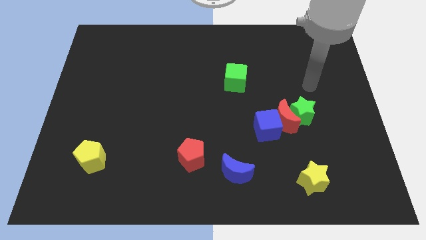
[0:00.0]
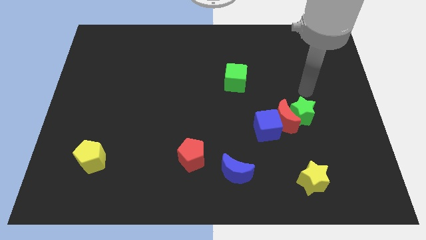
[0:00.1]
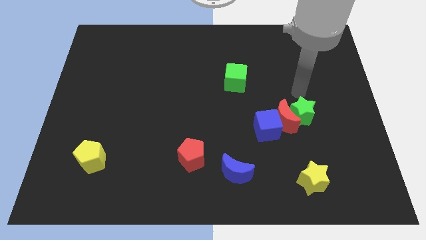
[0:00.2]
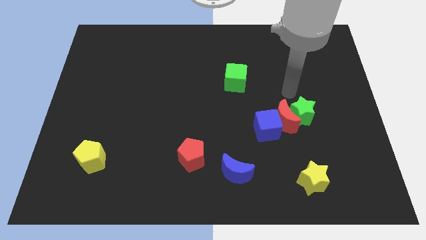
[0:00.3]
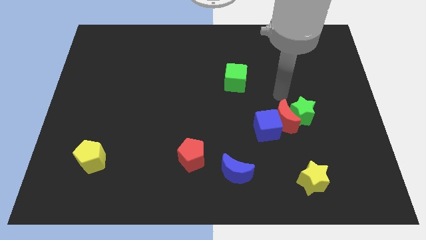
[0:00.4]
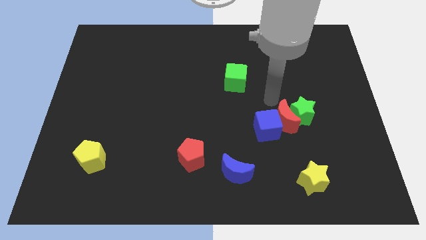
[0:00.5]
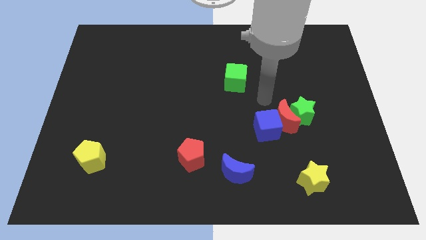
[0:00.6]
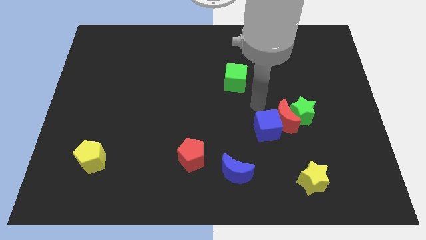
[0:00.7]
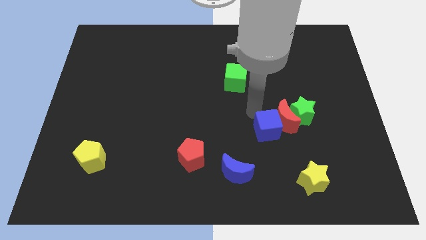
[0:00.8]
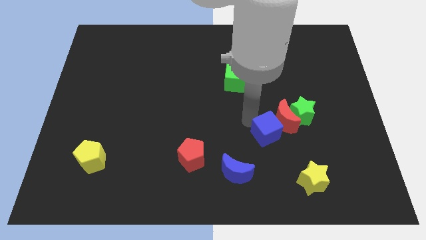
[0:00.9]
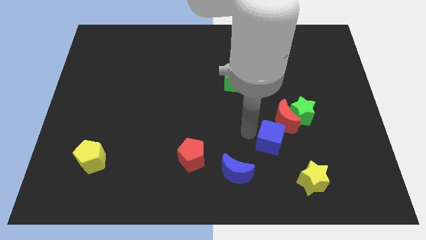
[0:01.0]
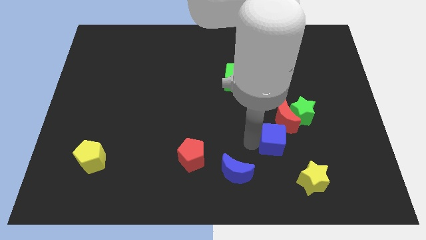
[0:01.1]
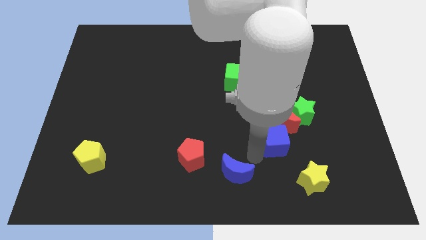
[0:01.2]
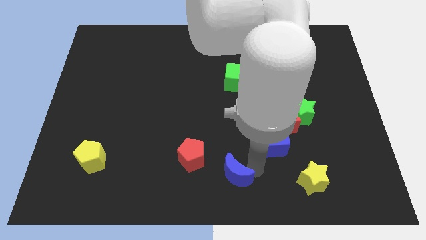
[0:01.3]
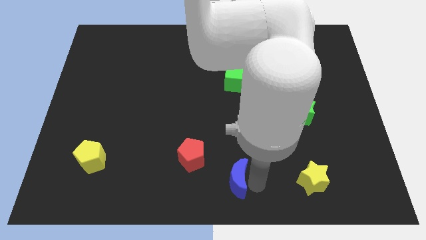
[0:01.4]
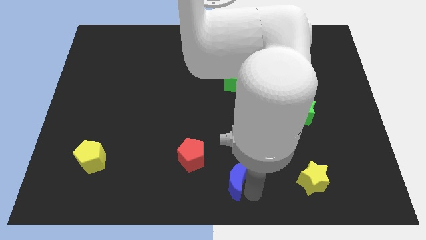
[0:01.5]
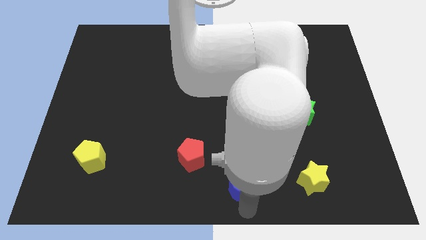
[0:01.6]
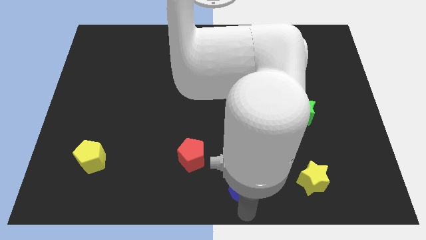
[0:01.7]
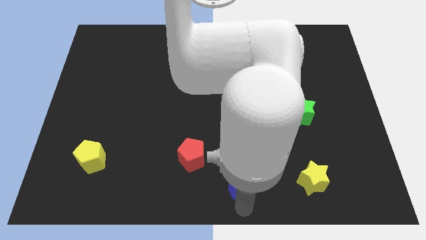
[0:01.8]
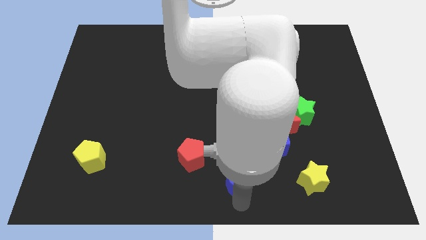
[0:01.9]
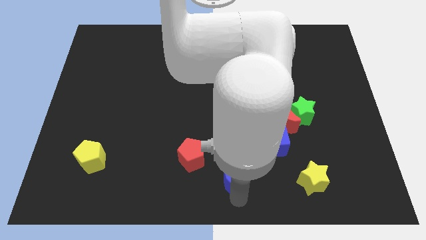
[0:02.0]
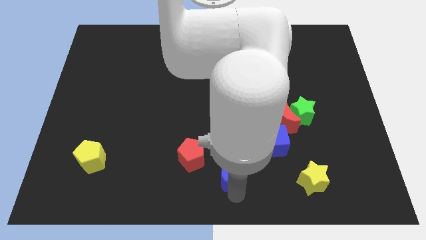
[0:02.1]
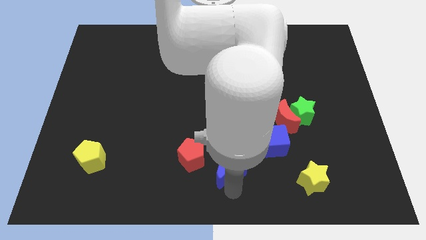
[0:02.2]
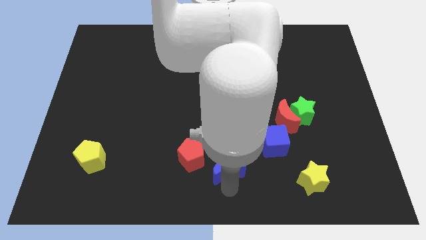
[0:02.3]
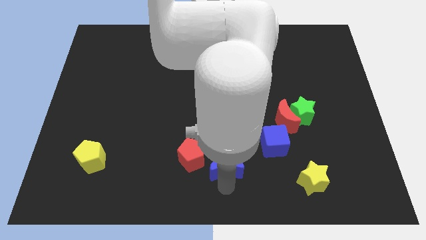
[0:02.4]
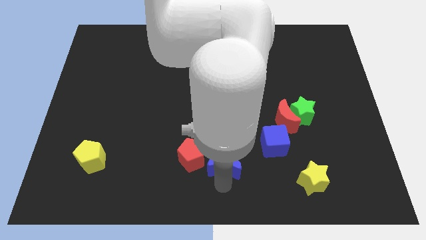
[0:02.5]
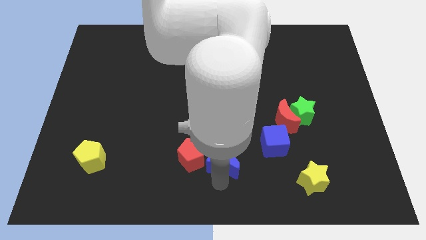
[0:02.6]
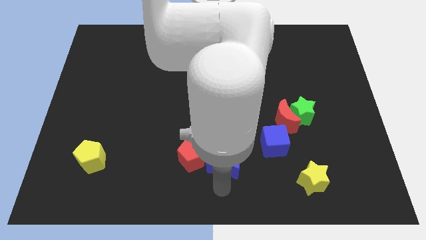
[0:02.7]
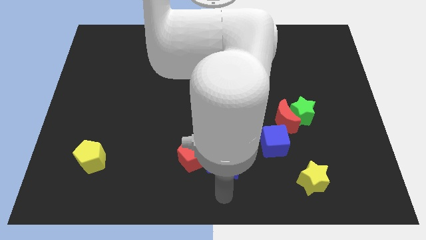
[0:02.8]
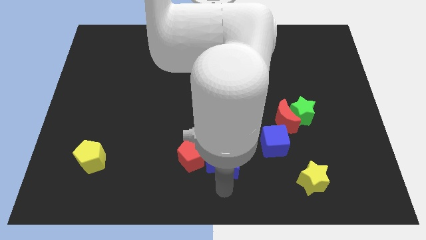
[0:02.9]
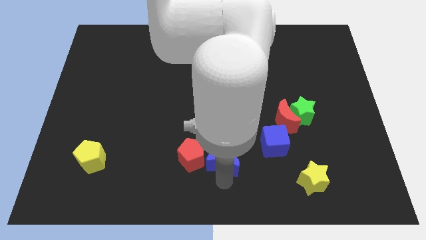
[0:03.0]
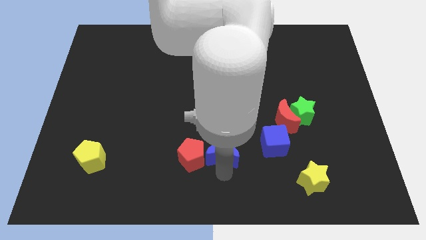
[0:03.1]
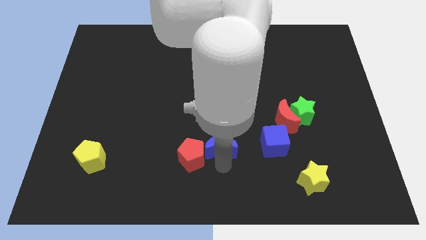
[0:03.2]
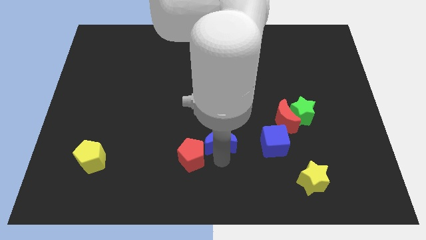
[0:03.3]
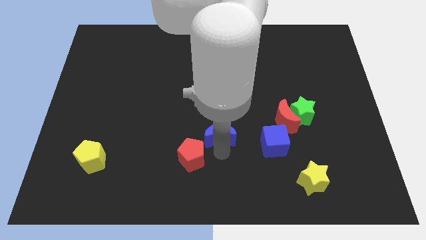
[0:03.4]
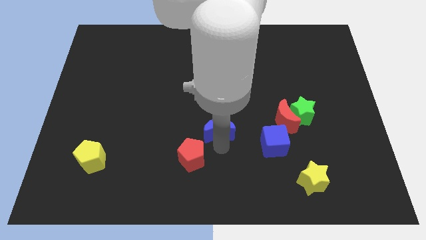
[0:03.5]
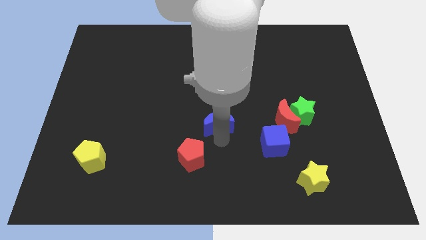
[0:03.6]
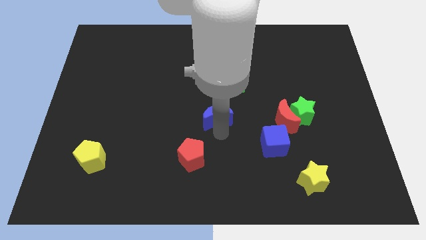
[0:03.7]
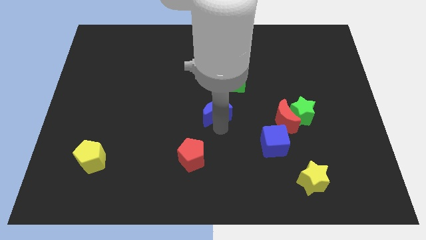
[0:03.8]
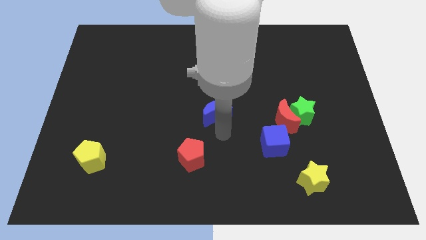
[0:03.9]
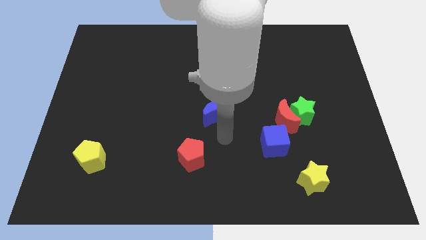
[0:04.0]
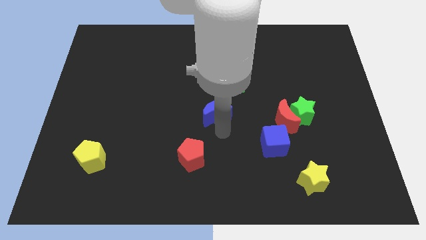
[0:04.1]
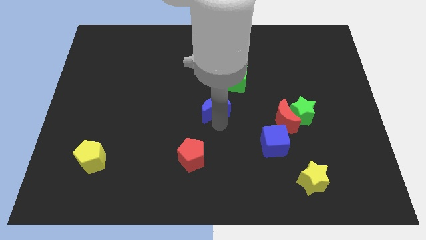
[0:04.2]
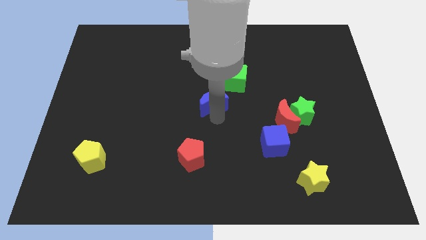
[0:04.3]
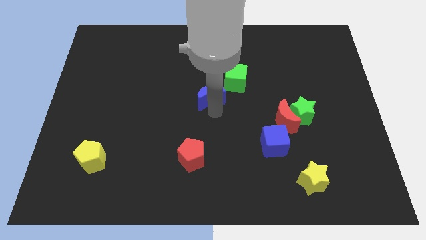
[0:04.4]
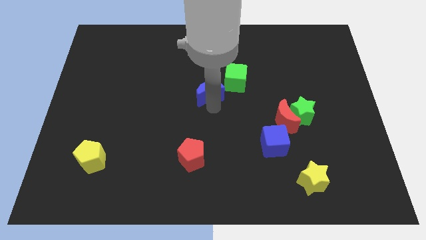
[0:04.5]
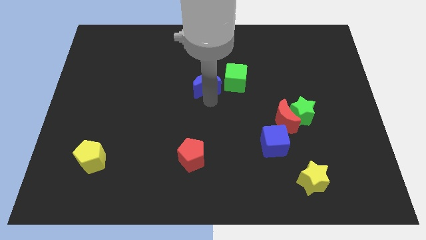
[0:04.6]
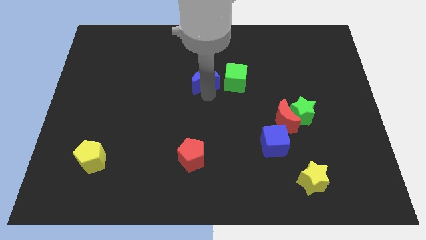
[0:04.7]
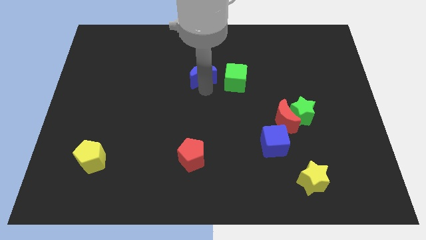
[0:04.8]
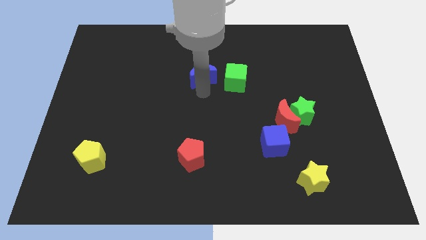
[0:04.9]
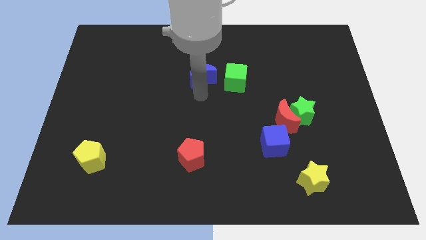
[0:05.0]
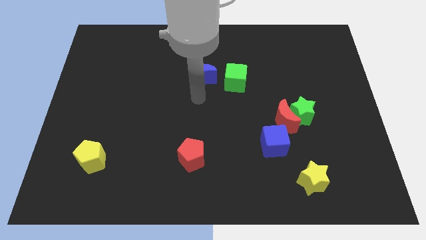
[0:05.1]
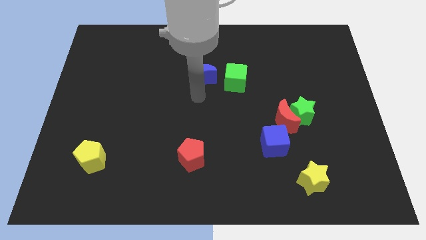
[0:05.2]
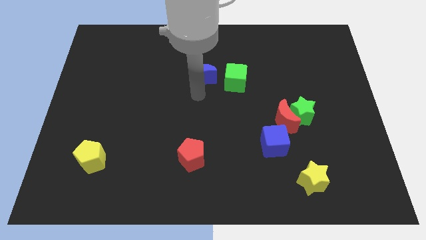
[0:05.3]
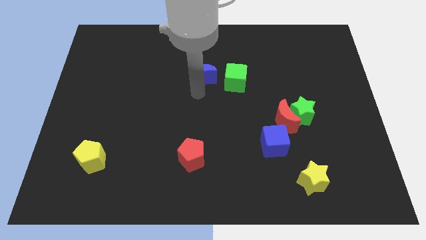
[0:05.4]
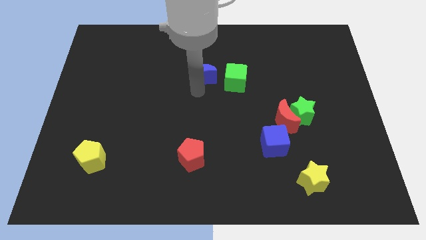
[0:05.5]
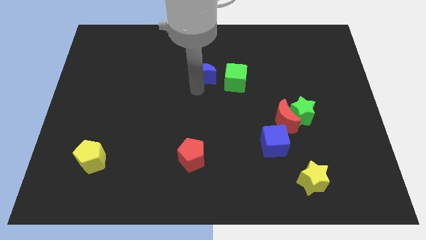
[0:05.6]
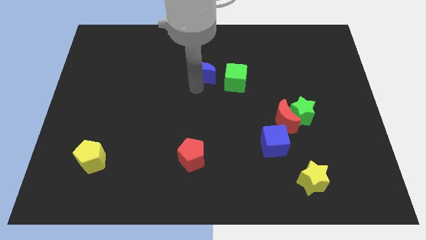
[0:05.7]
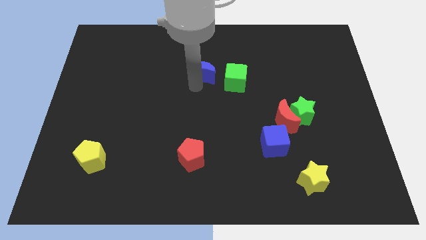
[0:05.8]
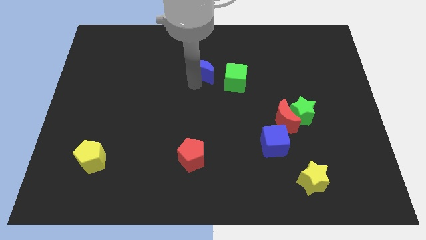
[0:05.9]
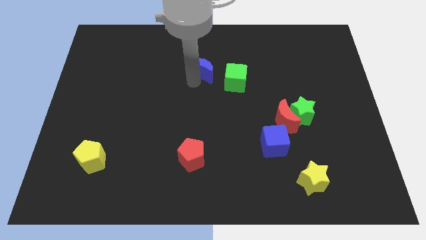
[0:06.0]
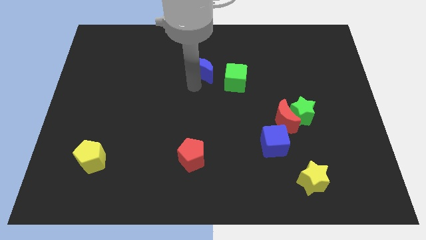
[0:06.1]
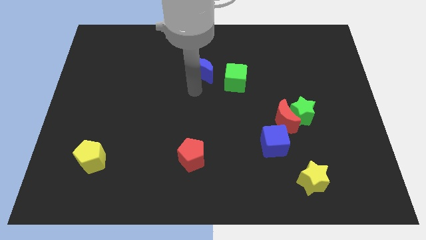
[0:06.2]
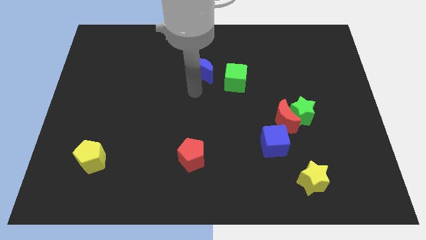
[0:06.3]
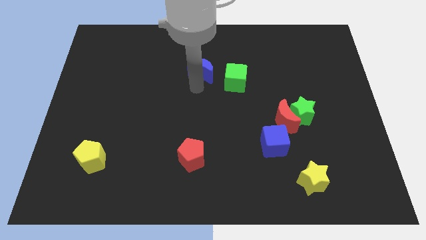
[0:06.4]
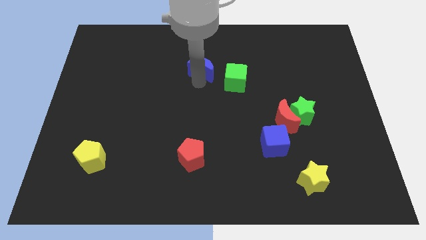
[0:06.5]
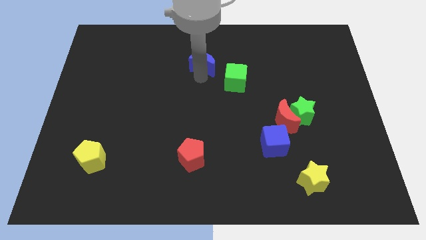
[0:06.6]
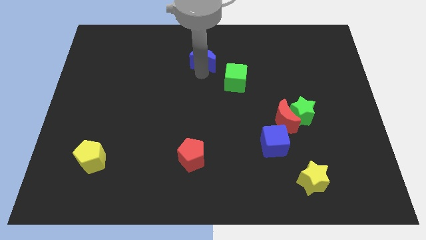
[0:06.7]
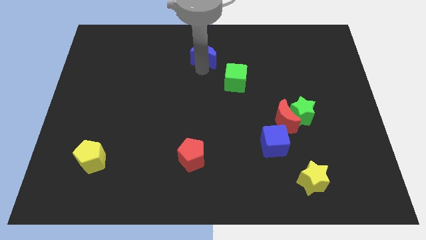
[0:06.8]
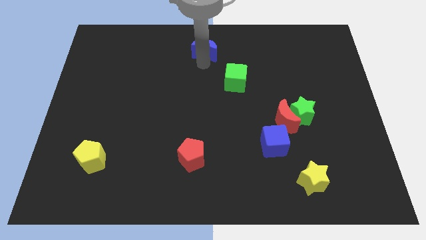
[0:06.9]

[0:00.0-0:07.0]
slide the blue moon to the top side
